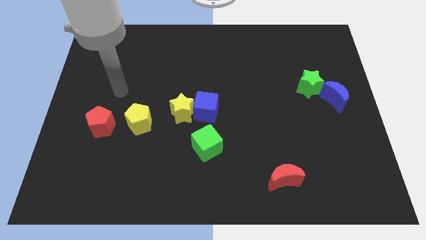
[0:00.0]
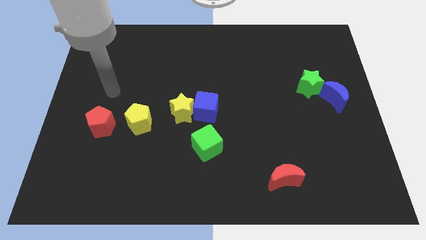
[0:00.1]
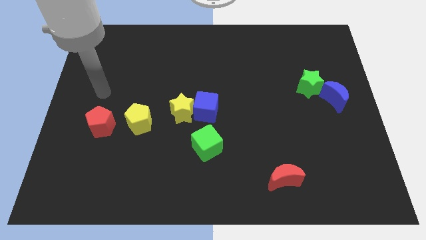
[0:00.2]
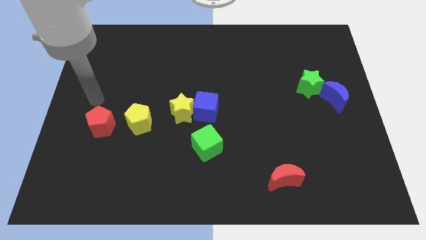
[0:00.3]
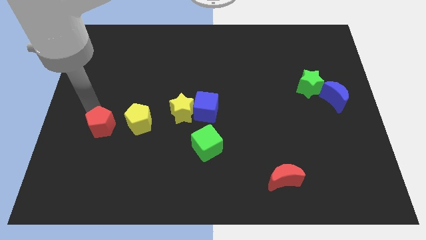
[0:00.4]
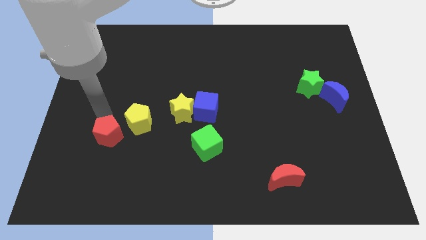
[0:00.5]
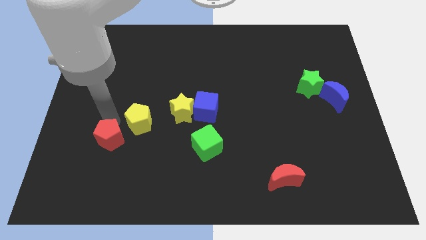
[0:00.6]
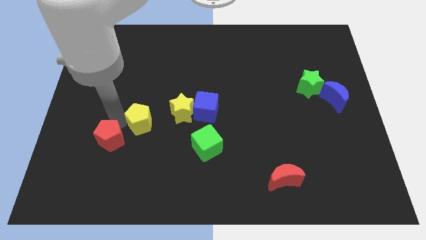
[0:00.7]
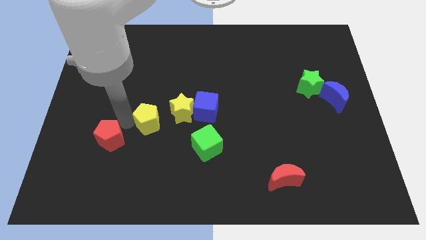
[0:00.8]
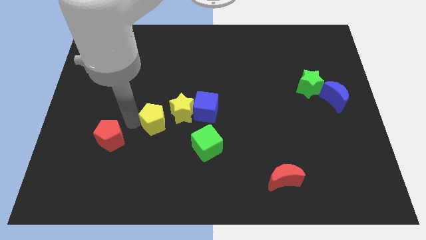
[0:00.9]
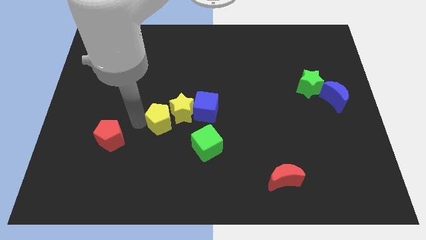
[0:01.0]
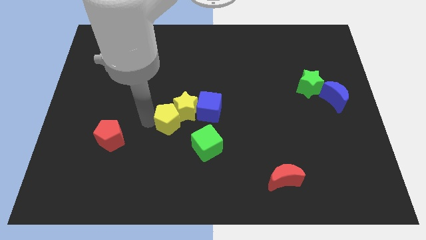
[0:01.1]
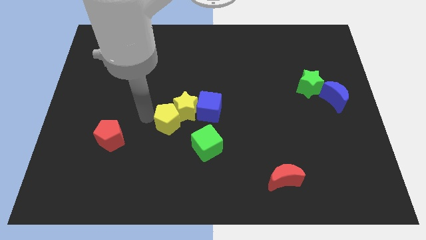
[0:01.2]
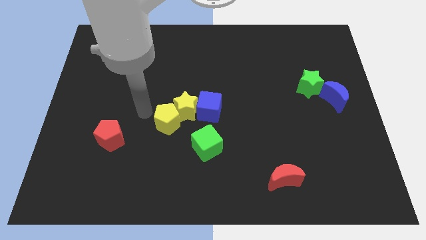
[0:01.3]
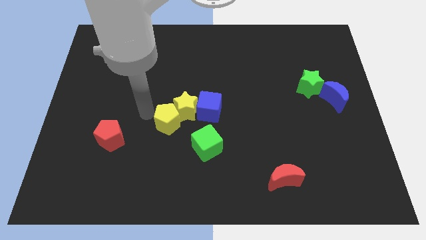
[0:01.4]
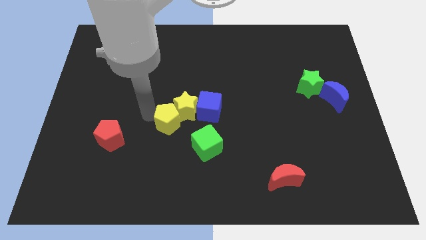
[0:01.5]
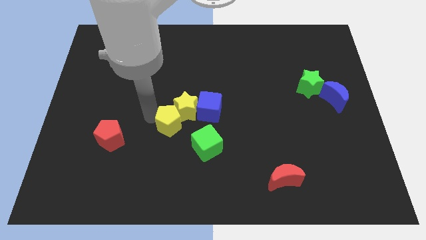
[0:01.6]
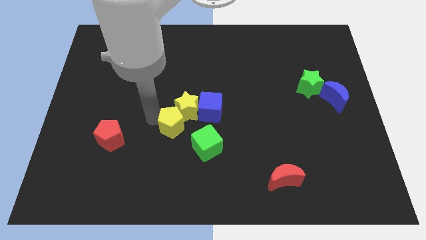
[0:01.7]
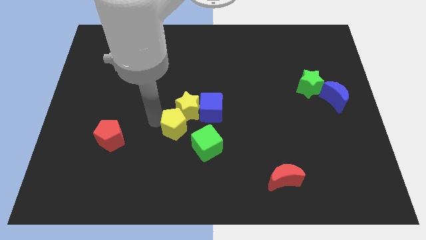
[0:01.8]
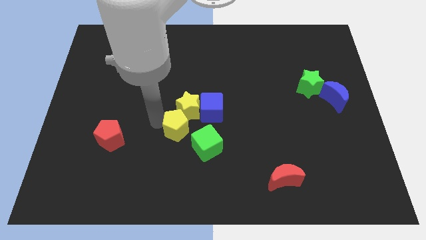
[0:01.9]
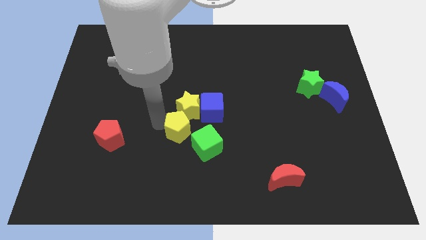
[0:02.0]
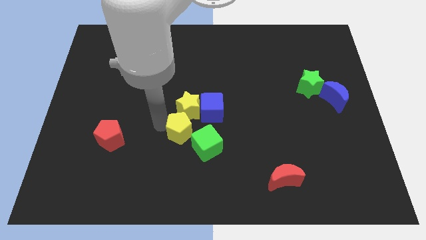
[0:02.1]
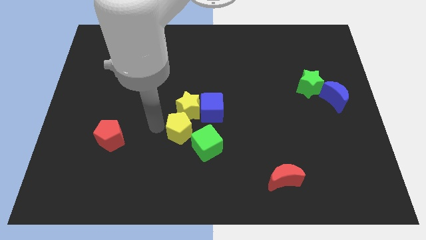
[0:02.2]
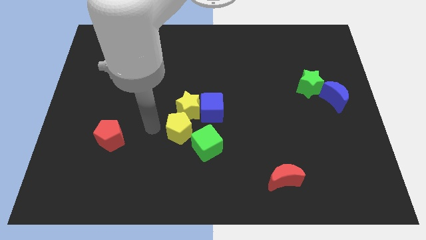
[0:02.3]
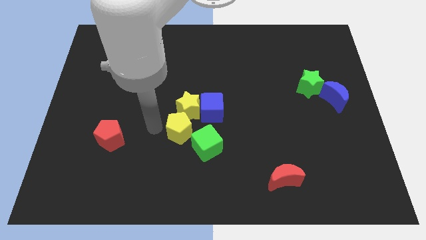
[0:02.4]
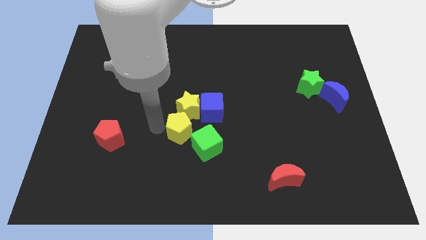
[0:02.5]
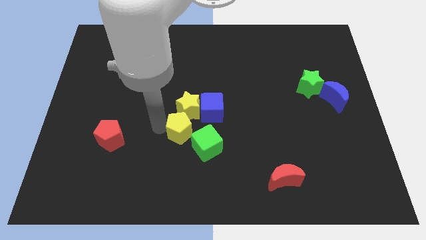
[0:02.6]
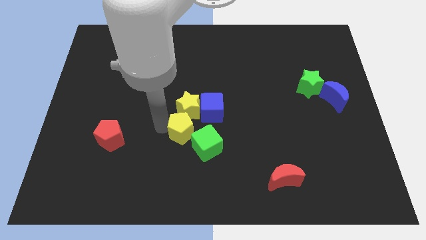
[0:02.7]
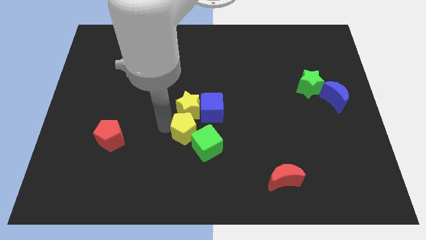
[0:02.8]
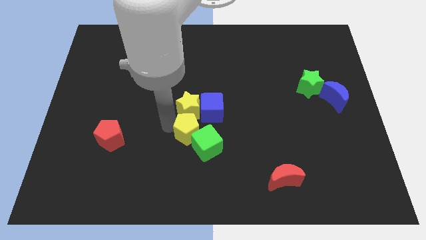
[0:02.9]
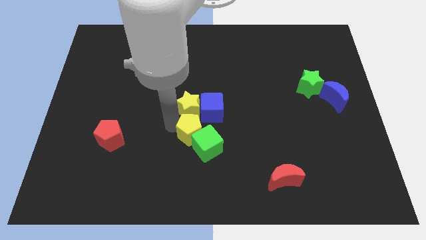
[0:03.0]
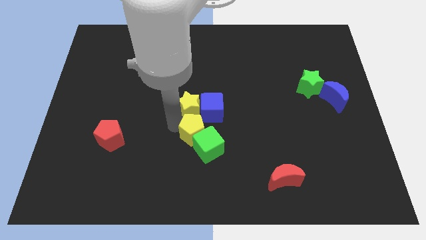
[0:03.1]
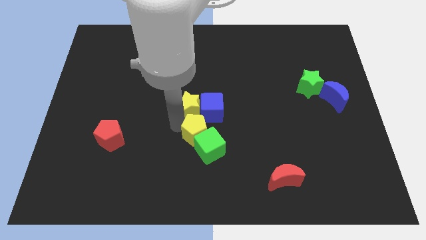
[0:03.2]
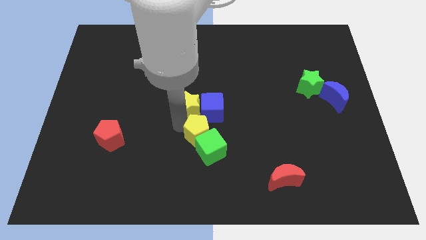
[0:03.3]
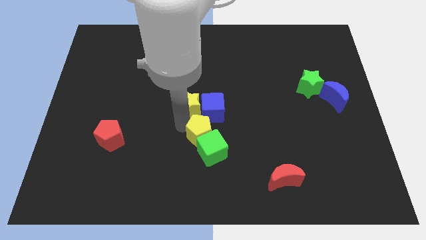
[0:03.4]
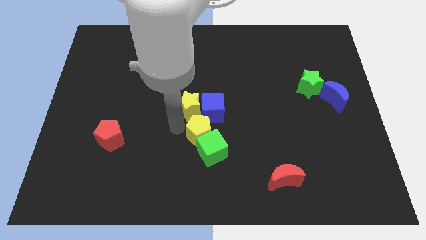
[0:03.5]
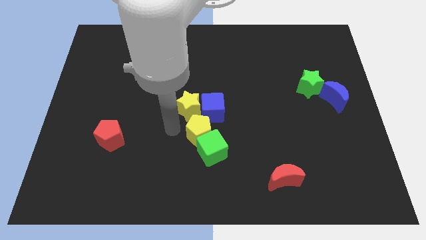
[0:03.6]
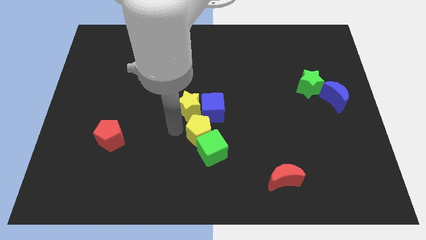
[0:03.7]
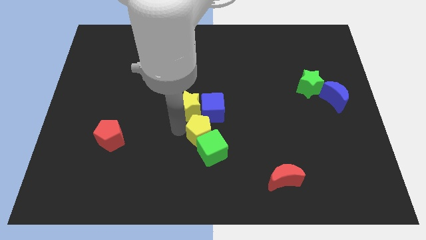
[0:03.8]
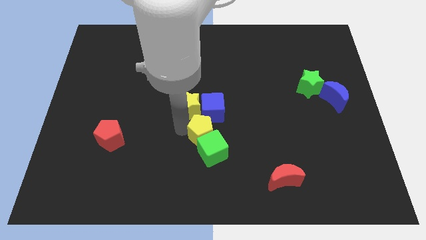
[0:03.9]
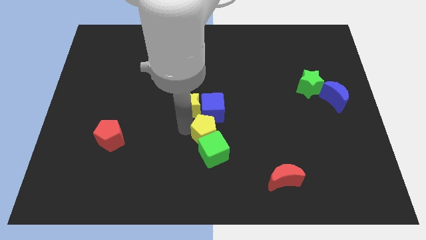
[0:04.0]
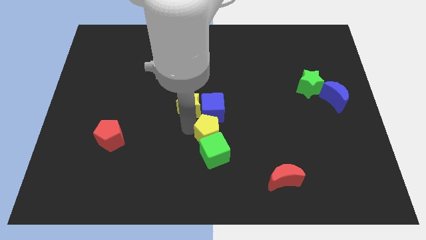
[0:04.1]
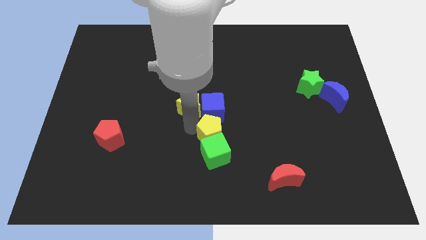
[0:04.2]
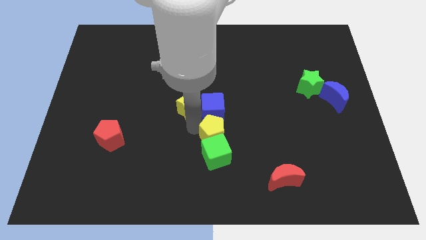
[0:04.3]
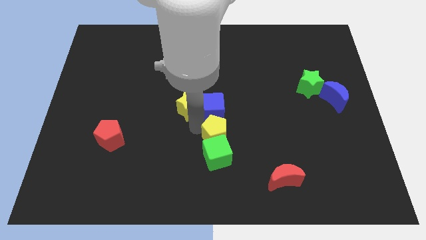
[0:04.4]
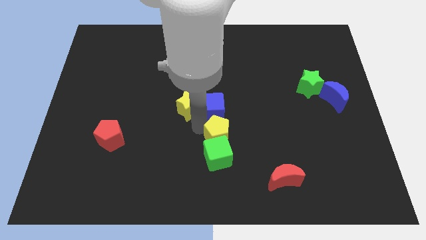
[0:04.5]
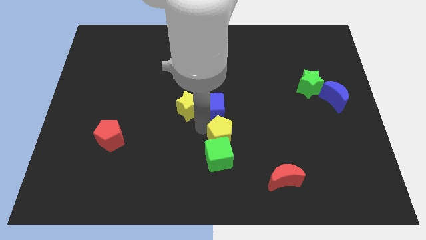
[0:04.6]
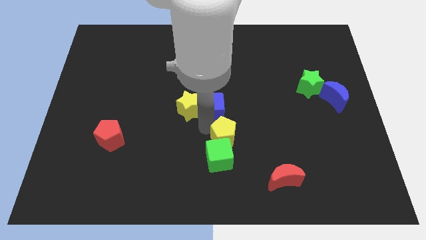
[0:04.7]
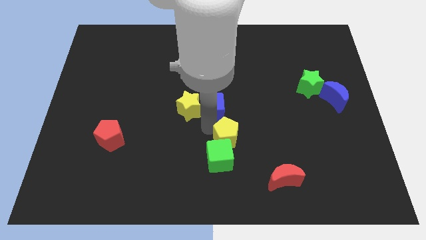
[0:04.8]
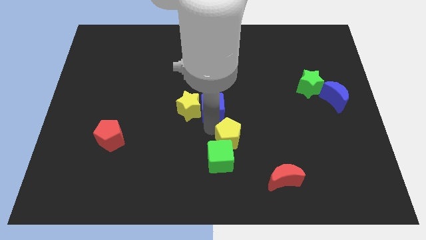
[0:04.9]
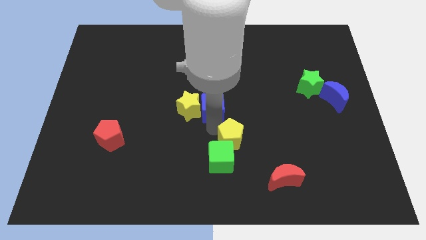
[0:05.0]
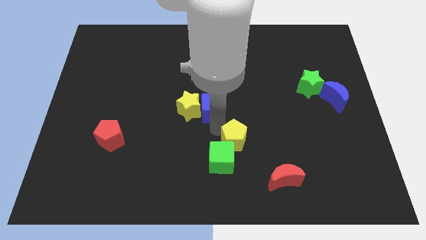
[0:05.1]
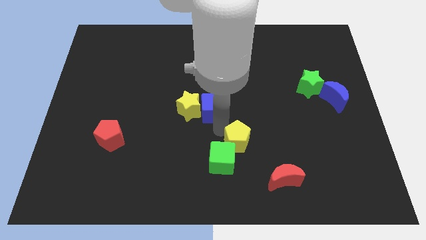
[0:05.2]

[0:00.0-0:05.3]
slide the yellow pentagon to the top left side of the red moon

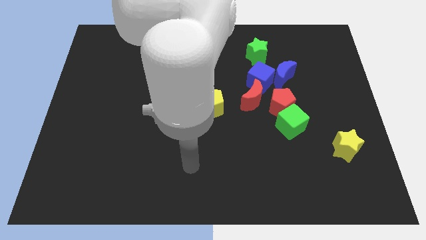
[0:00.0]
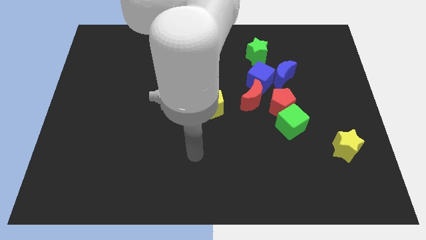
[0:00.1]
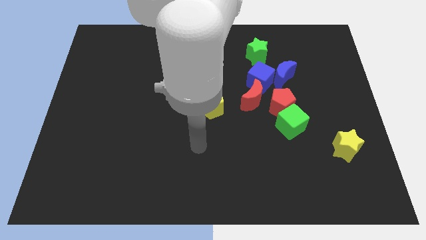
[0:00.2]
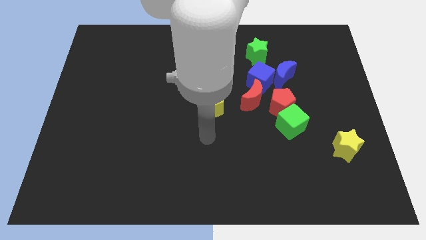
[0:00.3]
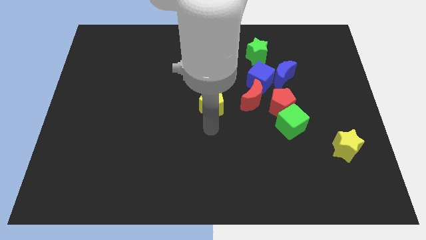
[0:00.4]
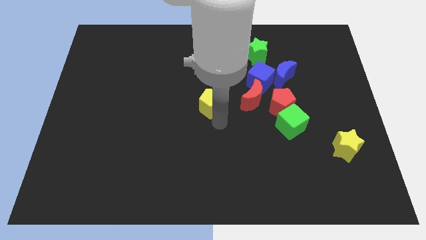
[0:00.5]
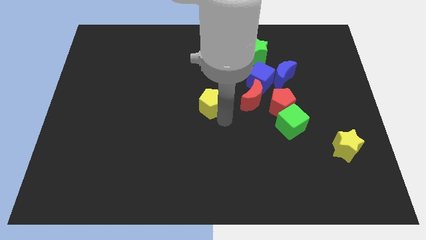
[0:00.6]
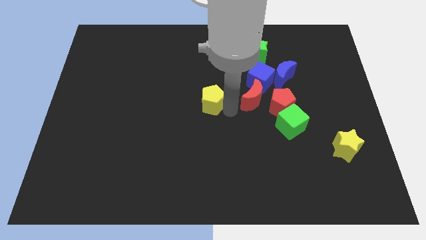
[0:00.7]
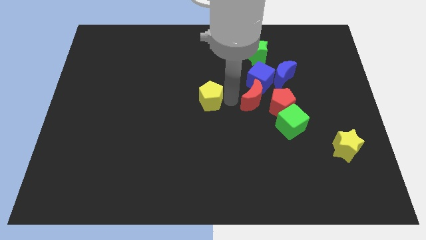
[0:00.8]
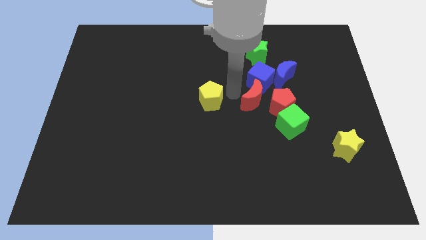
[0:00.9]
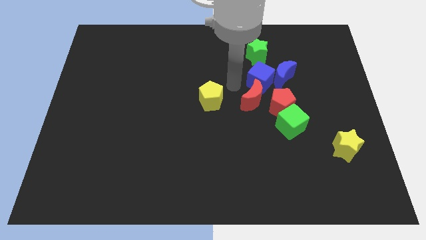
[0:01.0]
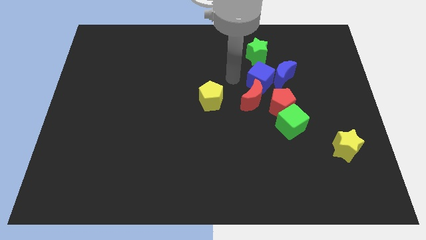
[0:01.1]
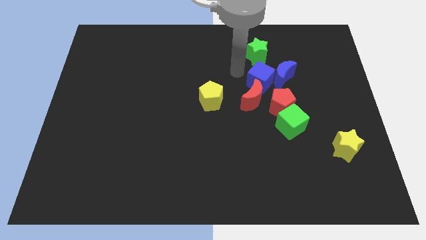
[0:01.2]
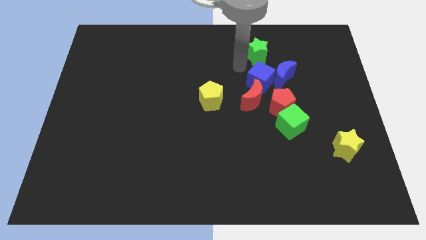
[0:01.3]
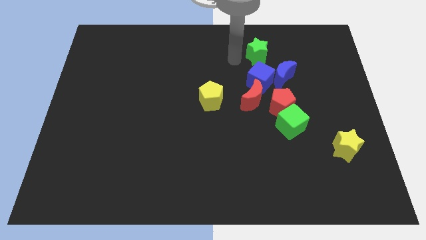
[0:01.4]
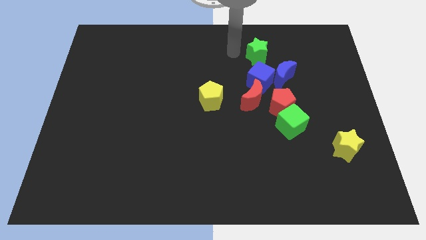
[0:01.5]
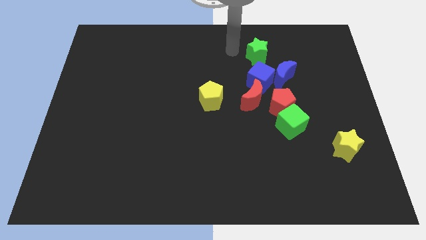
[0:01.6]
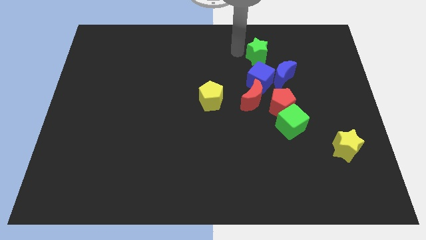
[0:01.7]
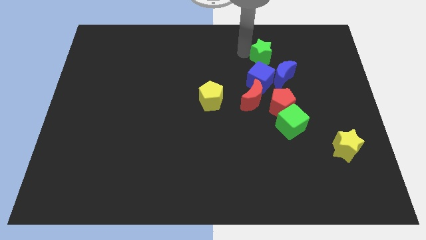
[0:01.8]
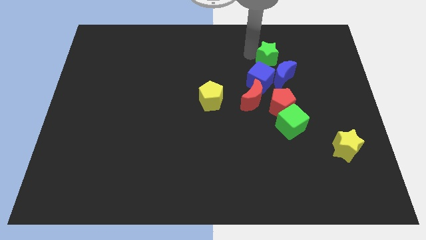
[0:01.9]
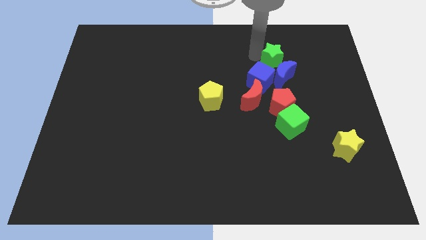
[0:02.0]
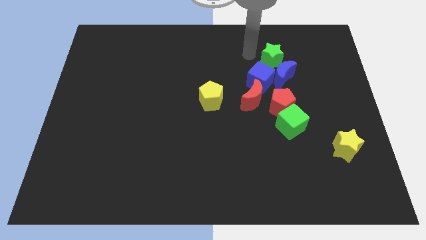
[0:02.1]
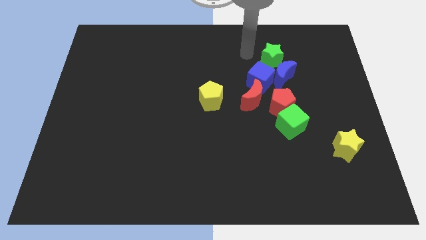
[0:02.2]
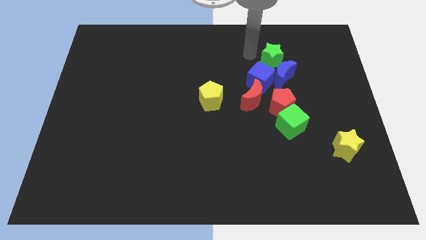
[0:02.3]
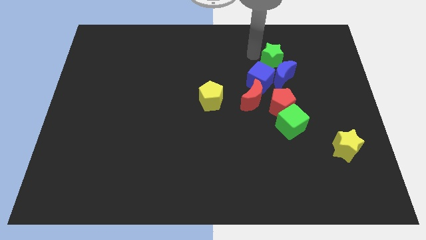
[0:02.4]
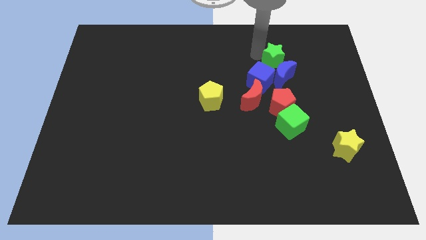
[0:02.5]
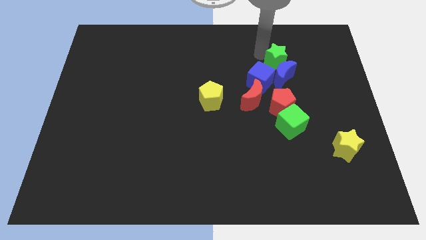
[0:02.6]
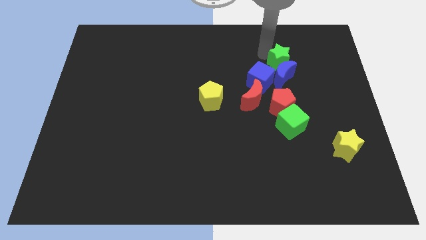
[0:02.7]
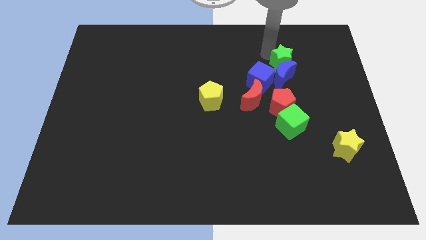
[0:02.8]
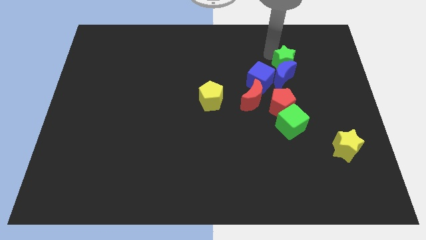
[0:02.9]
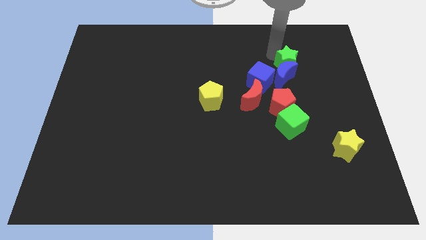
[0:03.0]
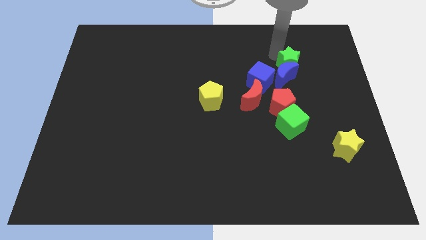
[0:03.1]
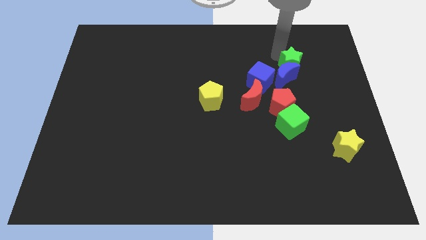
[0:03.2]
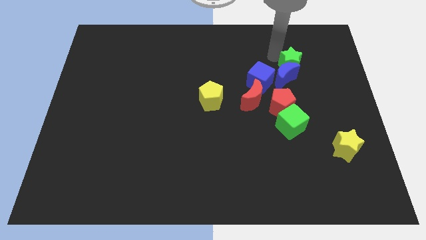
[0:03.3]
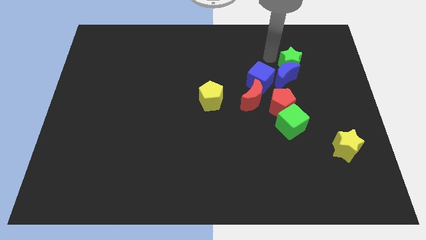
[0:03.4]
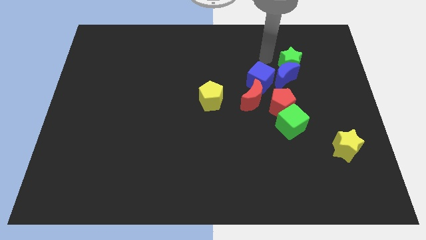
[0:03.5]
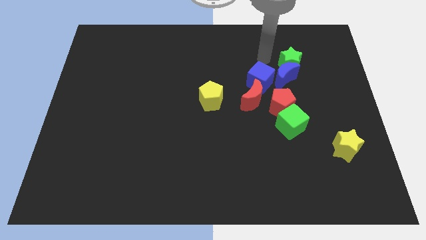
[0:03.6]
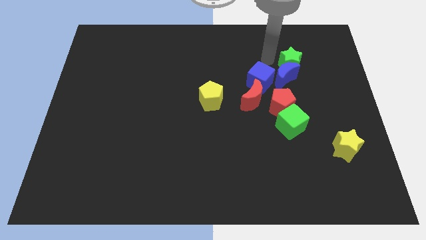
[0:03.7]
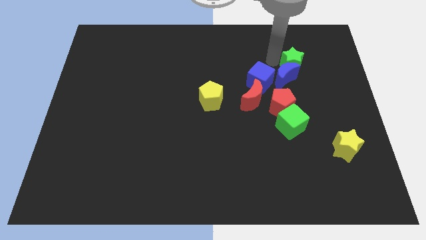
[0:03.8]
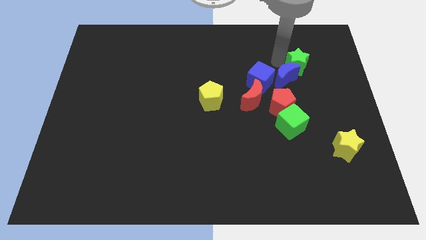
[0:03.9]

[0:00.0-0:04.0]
put the green star right of the blue moon
